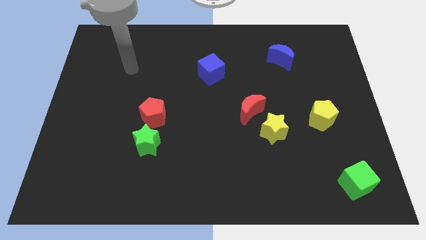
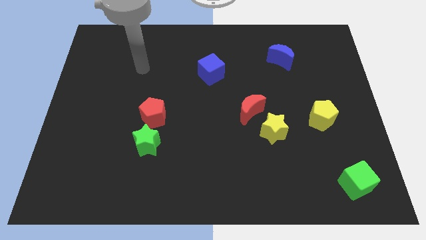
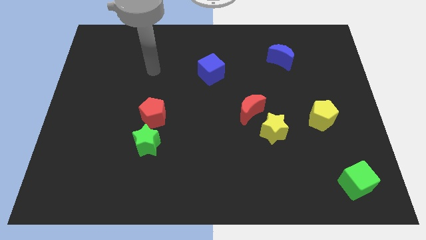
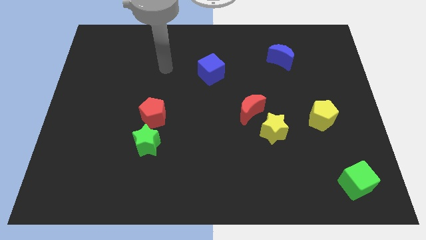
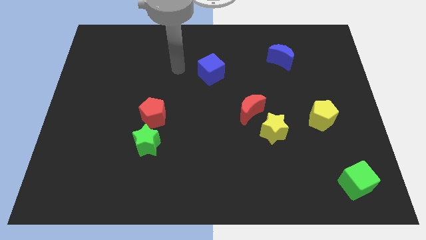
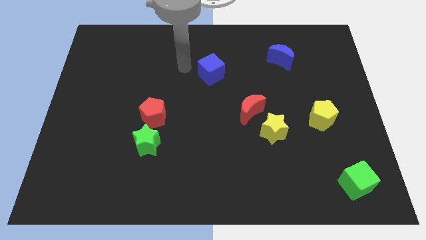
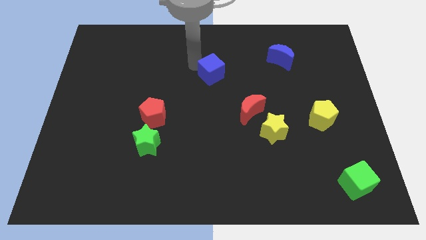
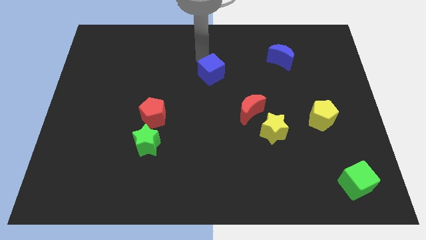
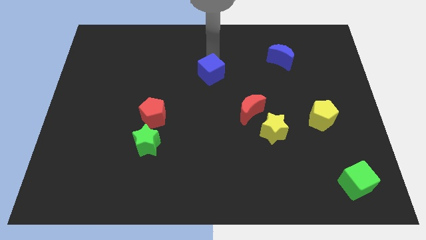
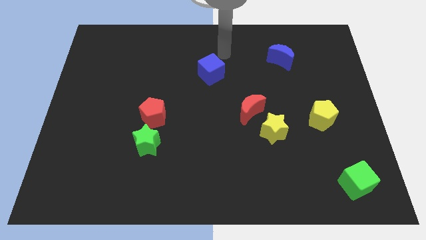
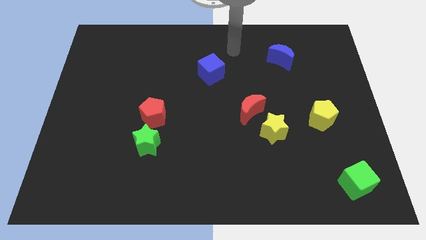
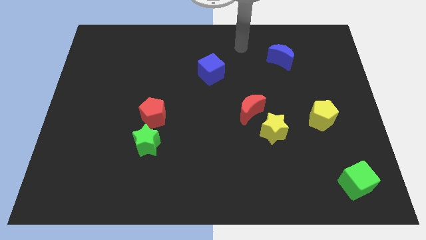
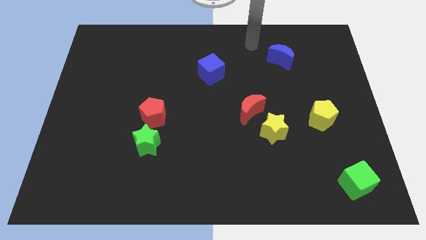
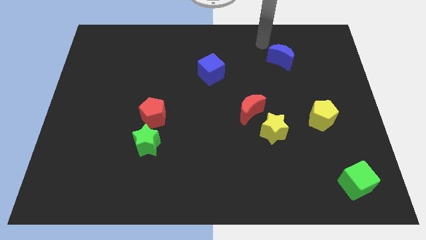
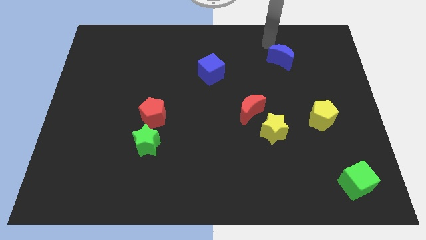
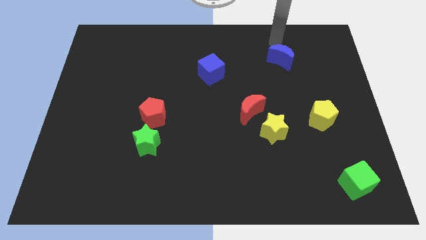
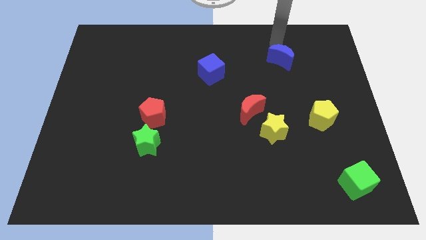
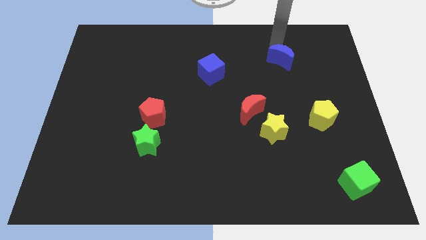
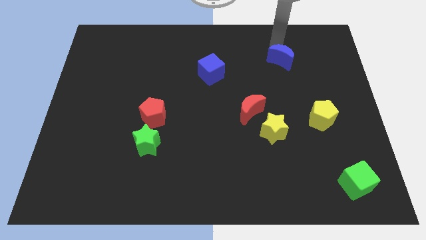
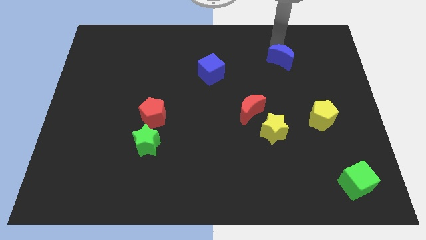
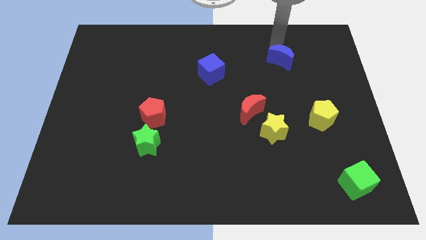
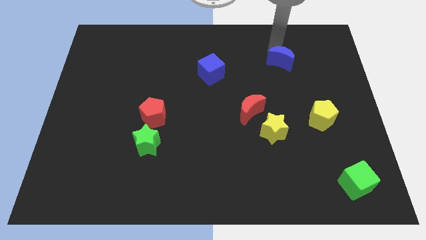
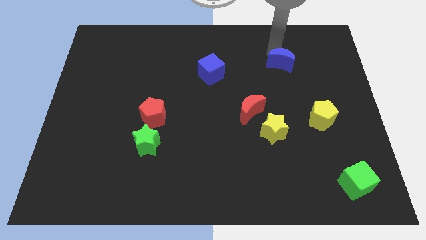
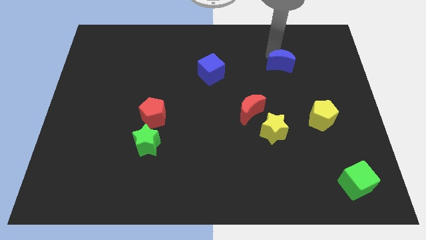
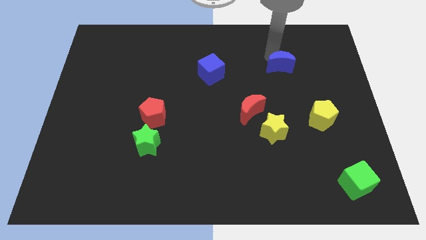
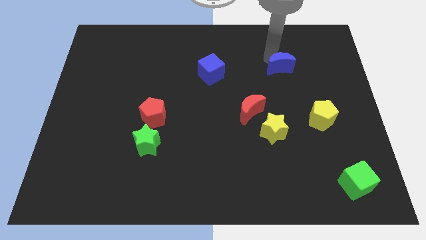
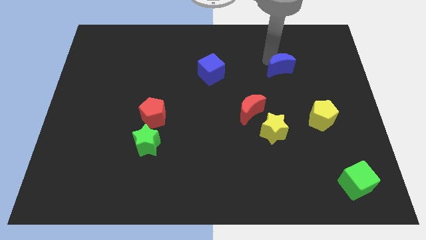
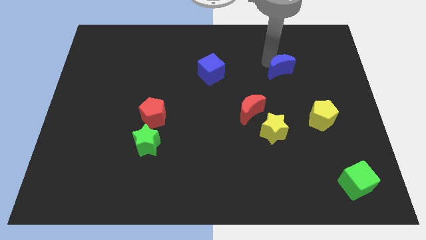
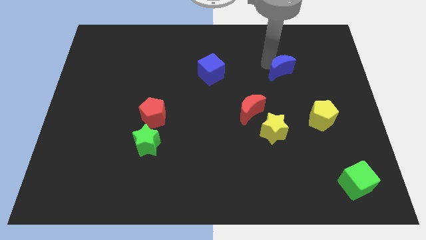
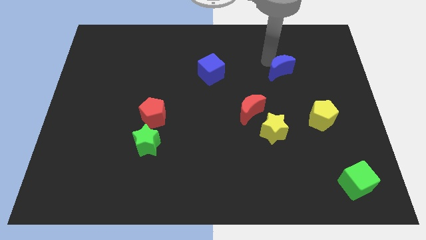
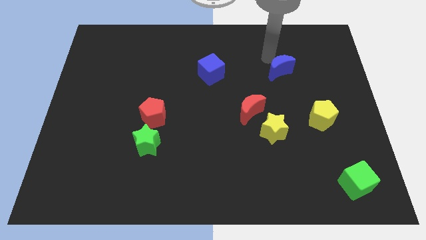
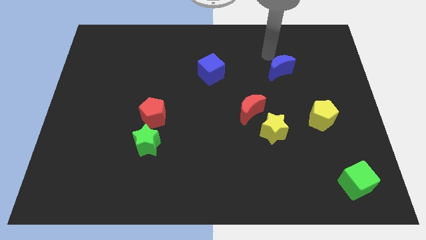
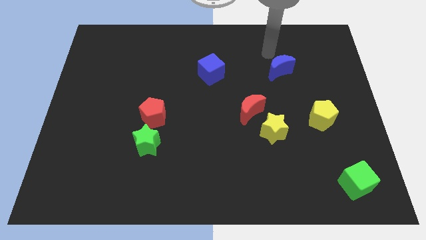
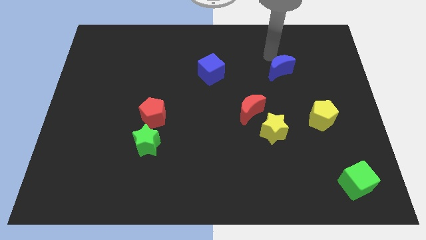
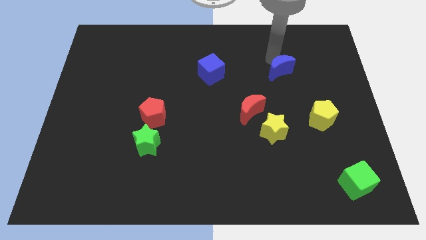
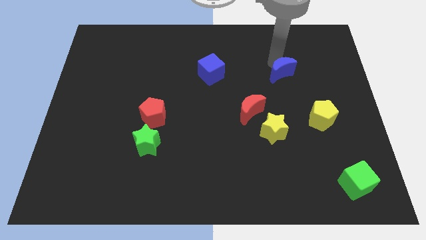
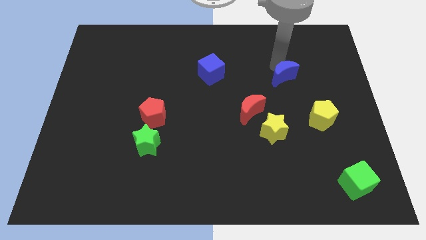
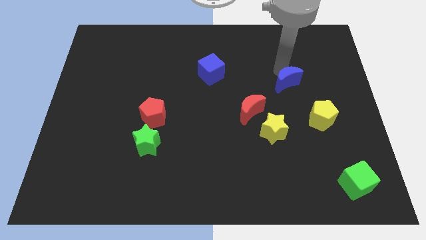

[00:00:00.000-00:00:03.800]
move the blue moon a little bit downwards

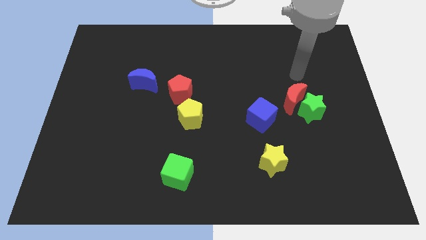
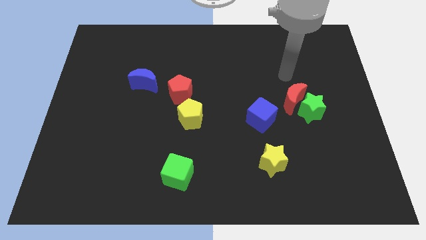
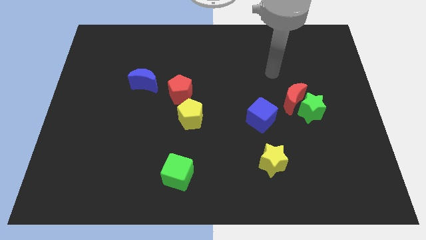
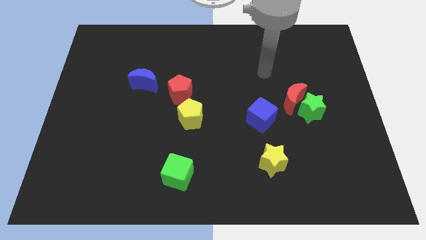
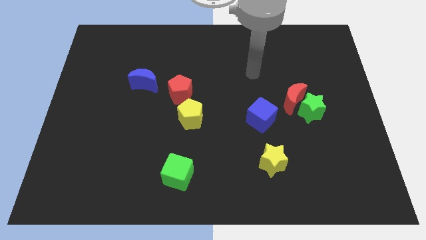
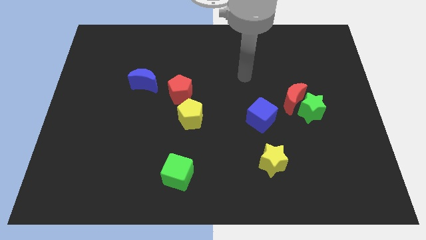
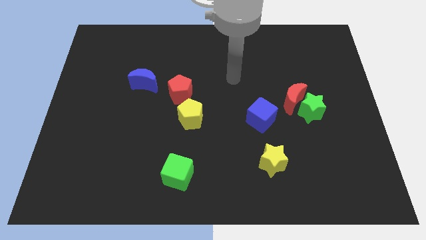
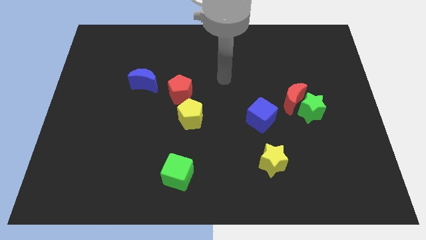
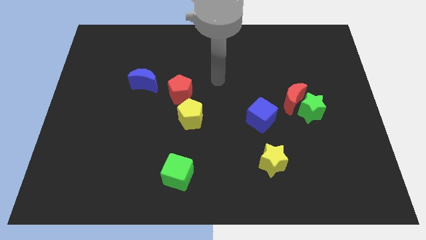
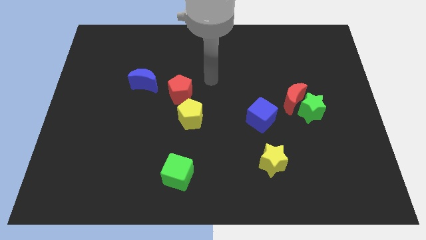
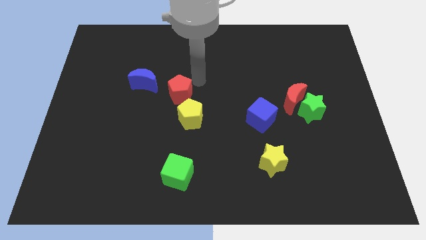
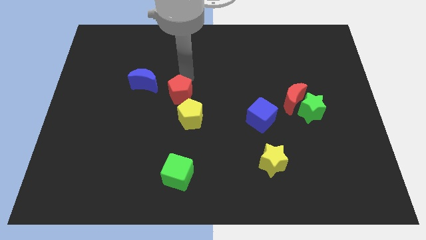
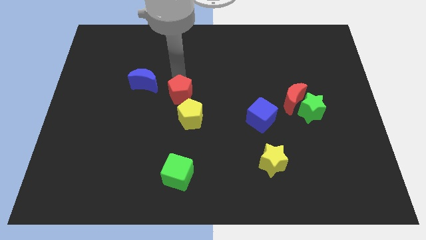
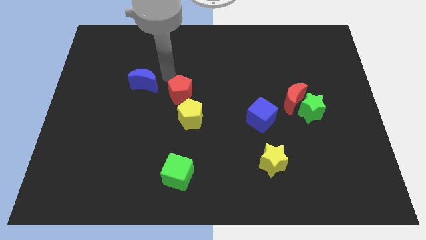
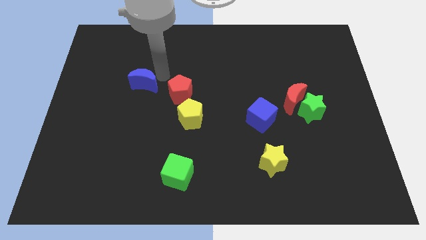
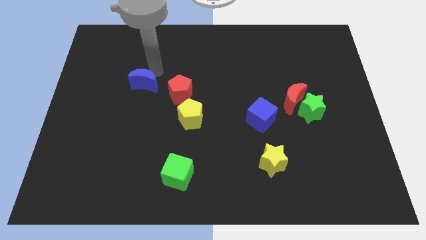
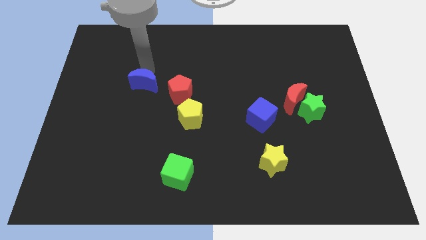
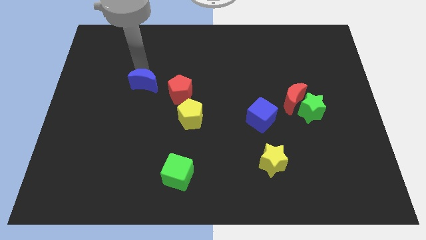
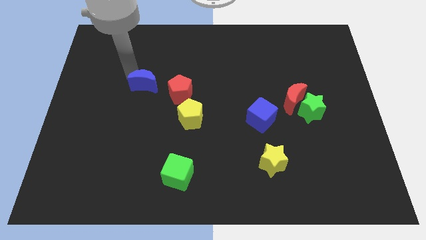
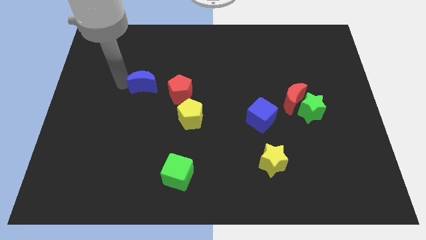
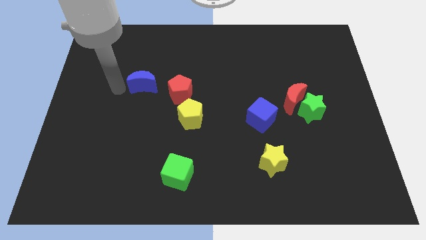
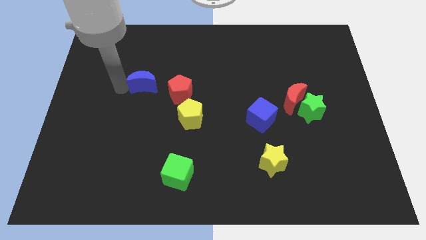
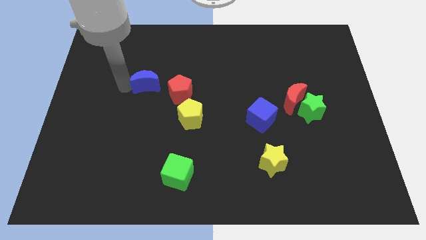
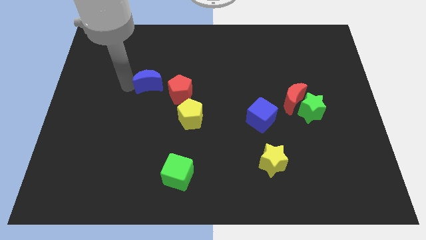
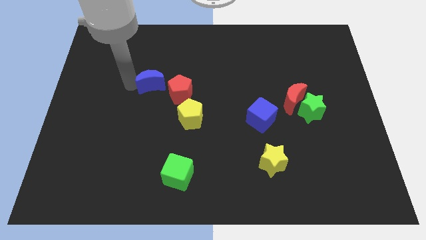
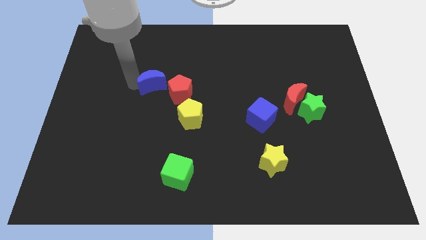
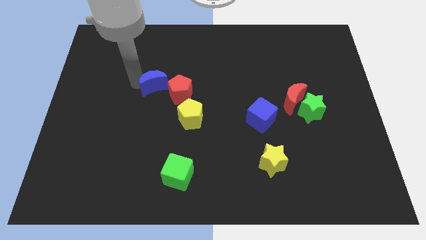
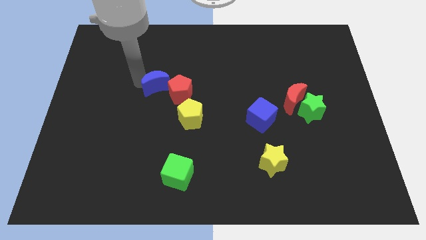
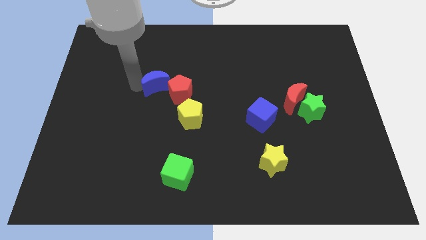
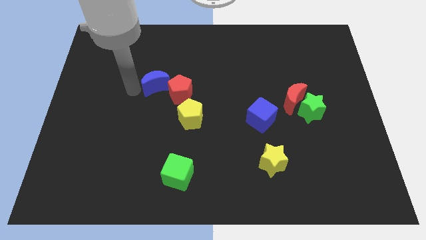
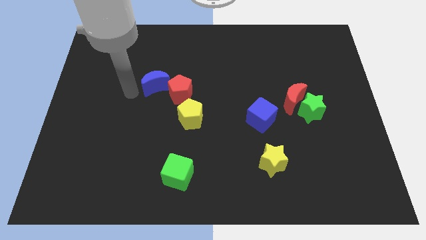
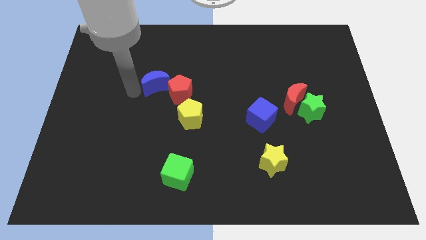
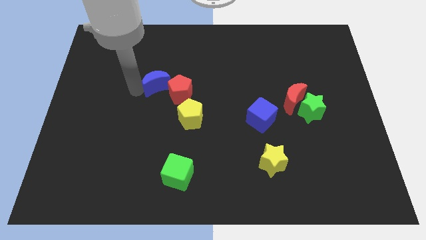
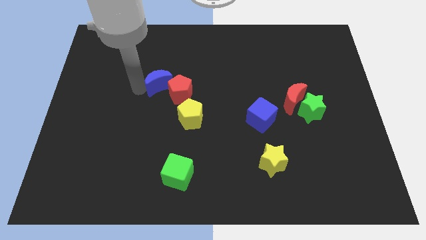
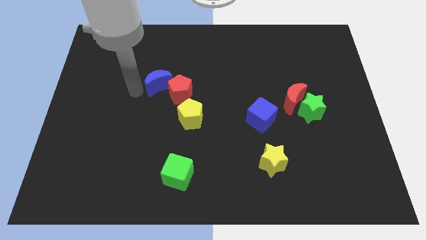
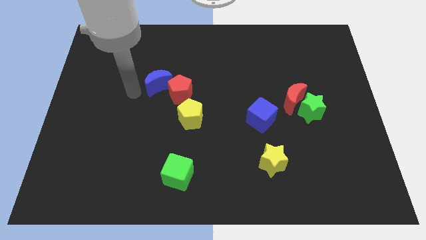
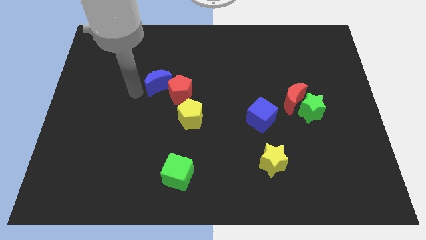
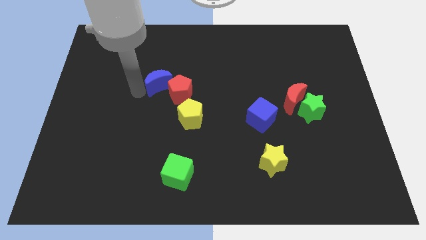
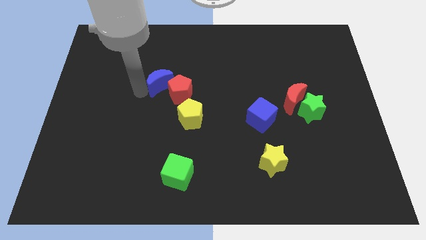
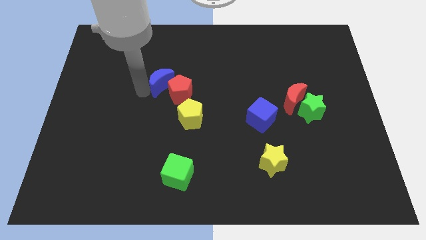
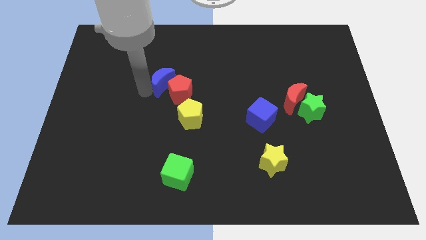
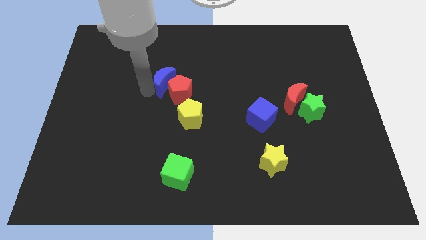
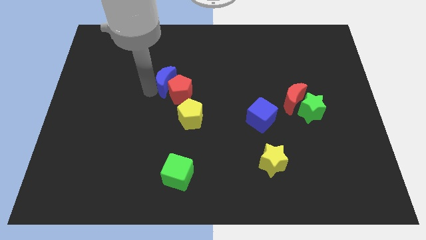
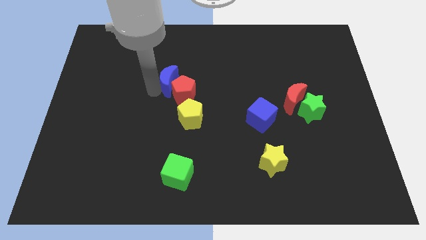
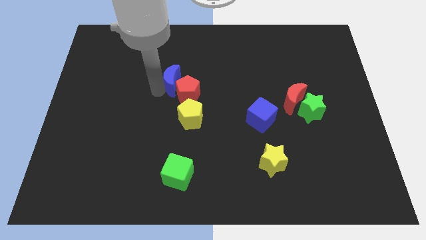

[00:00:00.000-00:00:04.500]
slide the blue moon right slightly
